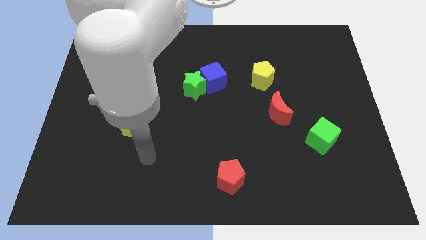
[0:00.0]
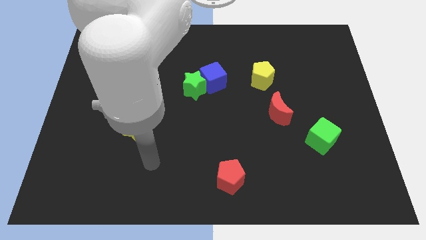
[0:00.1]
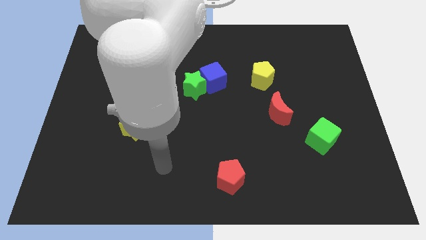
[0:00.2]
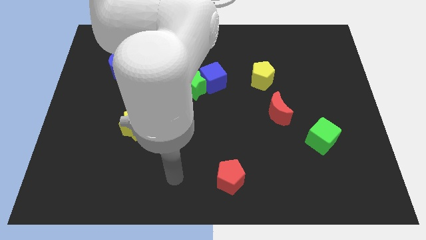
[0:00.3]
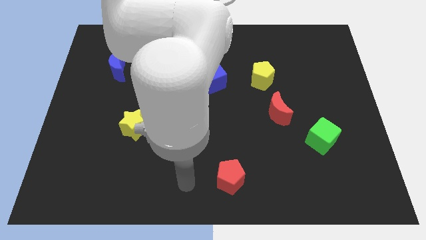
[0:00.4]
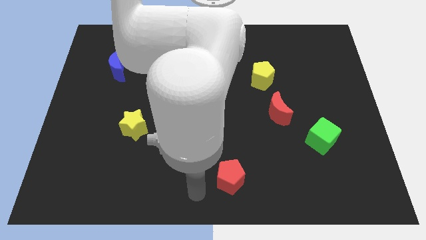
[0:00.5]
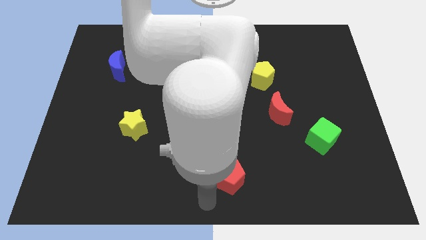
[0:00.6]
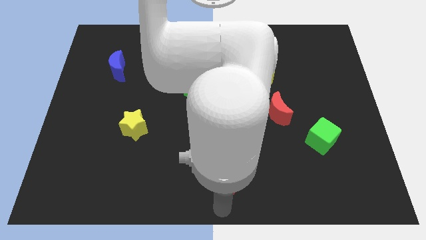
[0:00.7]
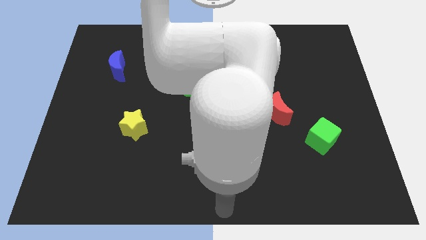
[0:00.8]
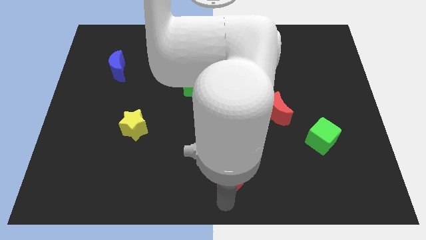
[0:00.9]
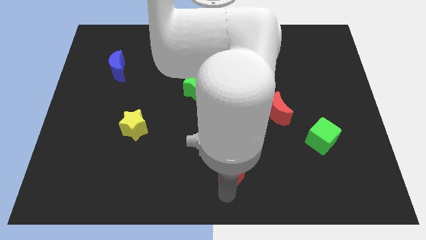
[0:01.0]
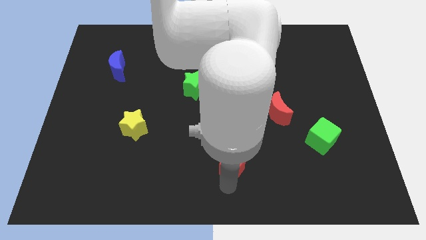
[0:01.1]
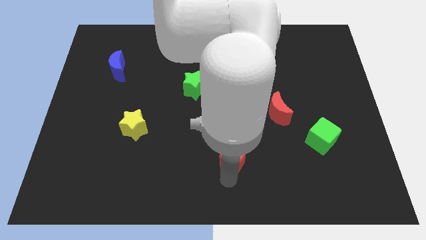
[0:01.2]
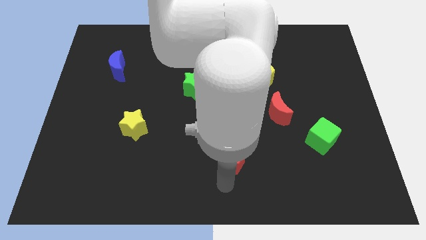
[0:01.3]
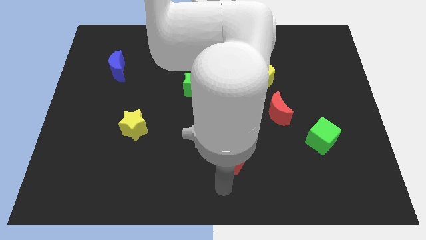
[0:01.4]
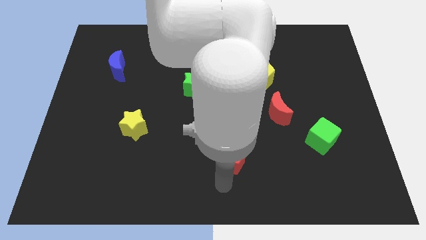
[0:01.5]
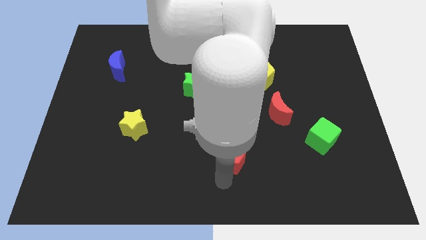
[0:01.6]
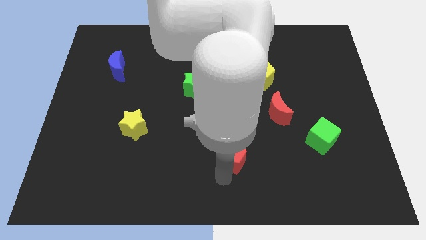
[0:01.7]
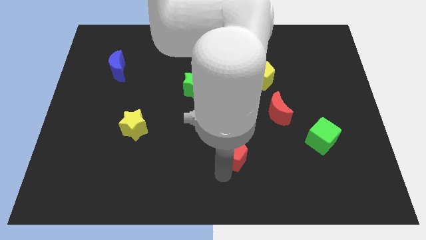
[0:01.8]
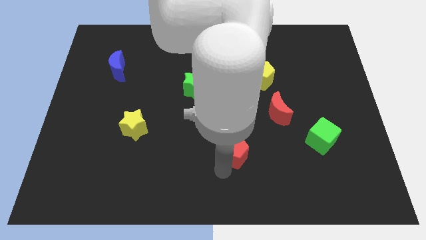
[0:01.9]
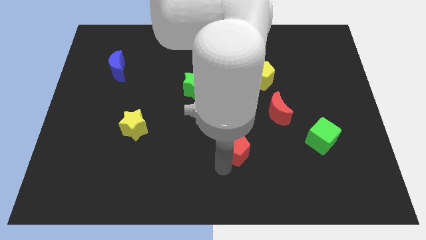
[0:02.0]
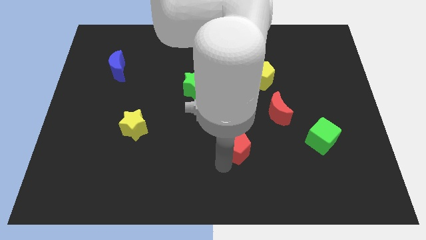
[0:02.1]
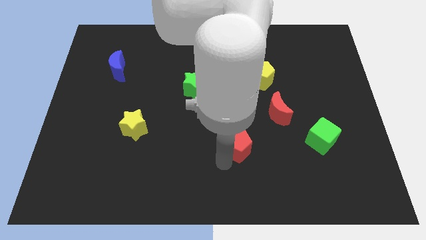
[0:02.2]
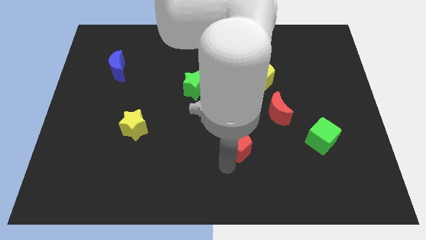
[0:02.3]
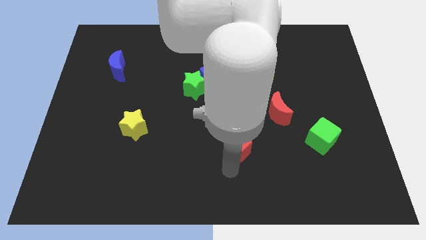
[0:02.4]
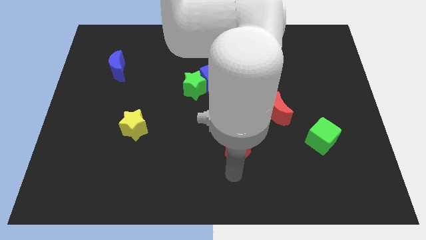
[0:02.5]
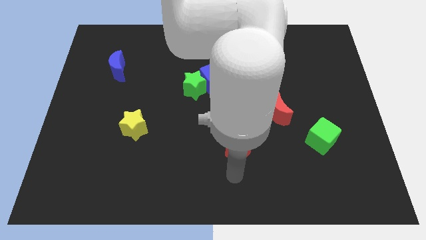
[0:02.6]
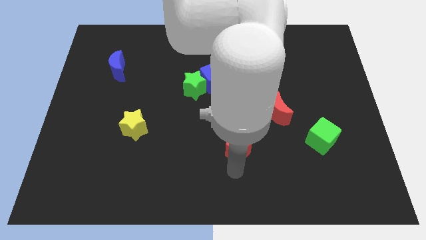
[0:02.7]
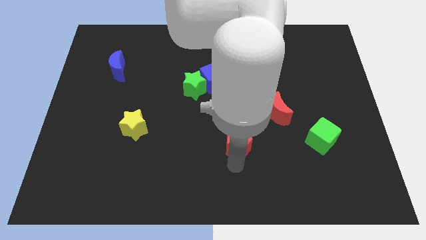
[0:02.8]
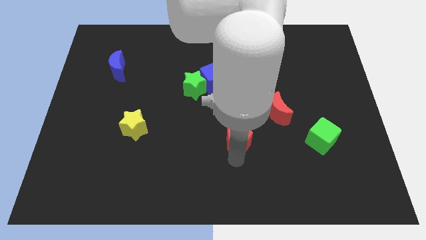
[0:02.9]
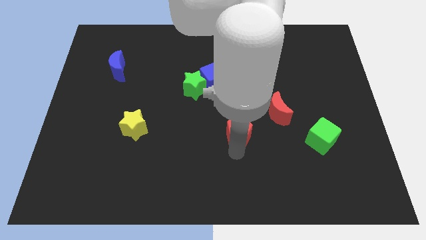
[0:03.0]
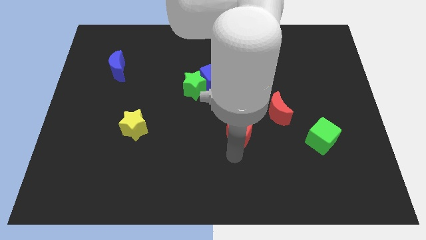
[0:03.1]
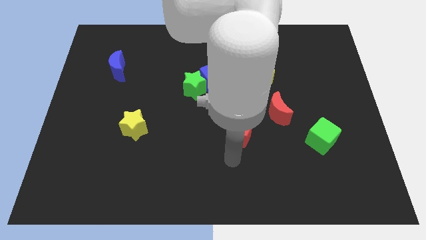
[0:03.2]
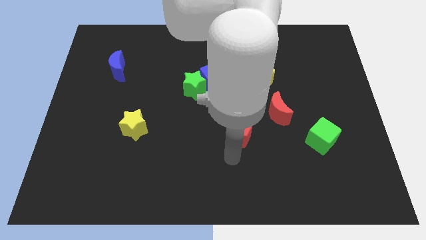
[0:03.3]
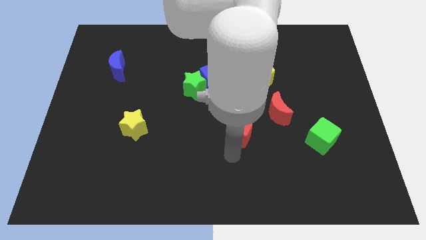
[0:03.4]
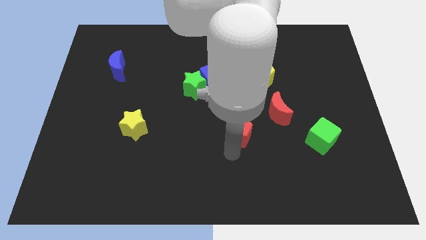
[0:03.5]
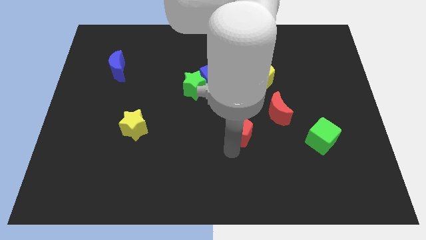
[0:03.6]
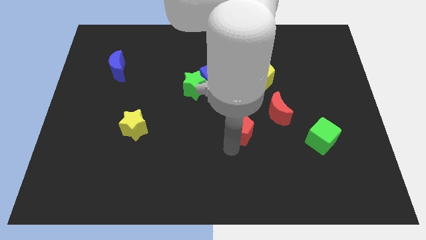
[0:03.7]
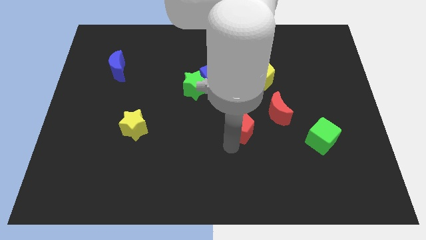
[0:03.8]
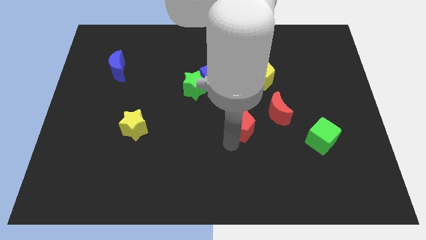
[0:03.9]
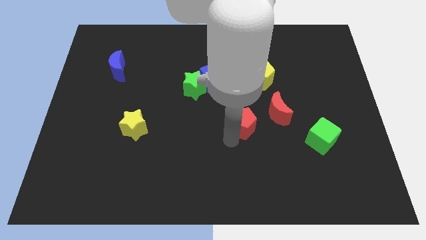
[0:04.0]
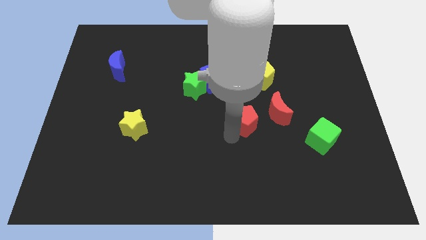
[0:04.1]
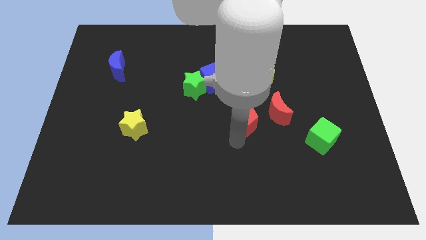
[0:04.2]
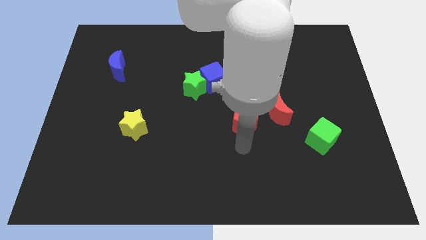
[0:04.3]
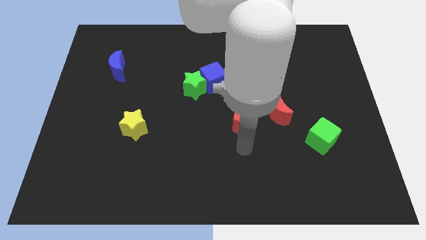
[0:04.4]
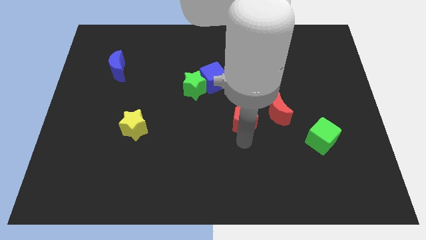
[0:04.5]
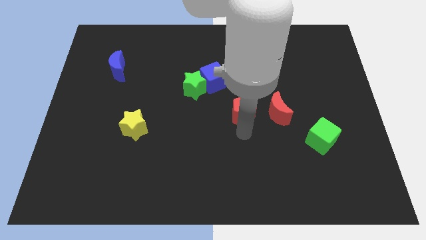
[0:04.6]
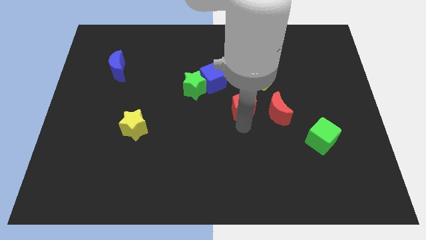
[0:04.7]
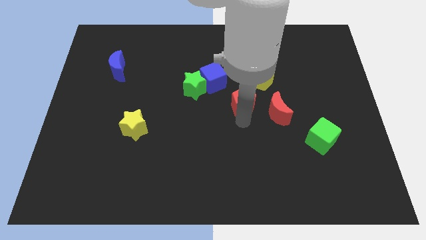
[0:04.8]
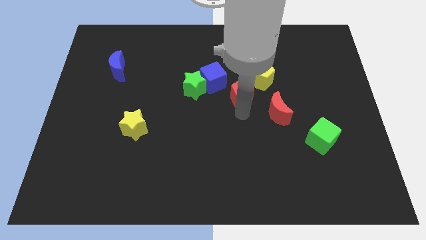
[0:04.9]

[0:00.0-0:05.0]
slide the red pentagon up

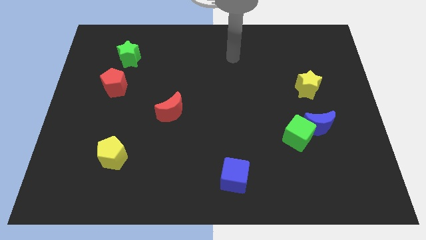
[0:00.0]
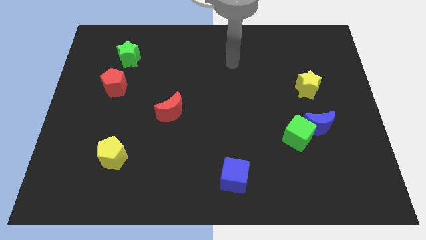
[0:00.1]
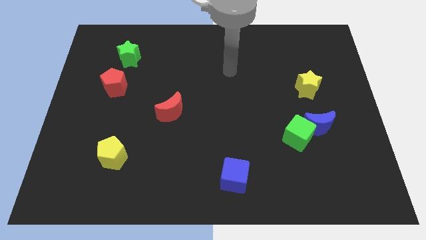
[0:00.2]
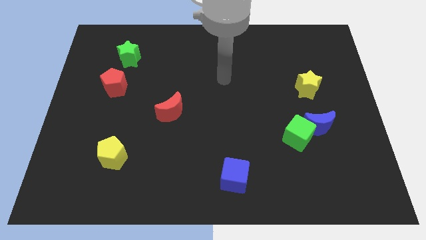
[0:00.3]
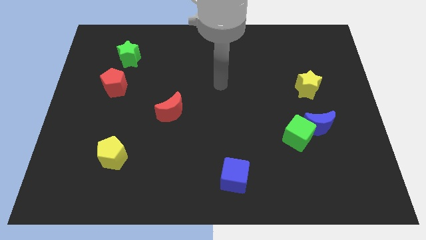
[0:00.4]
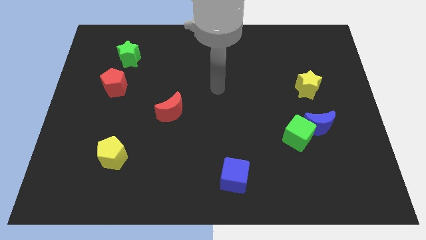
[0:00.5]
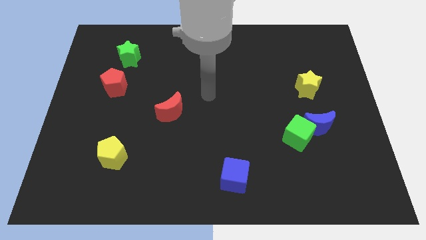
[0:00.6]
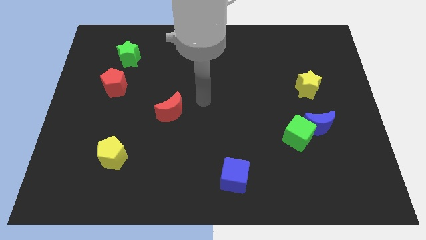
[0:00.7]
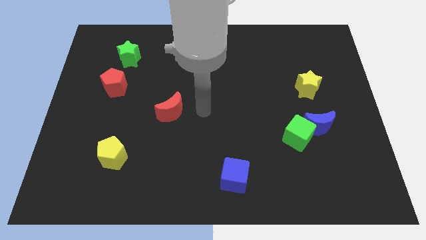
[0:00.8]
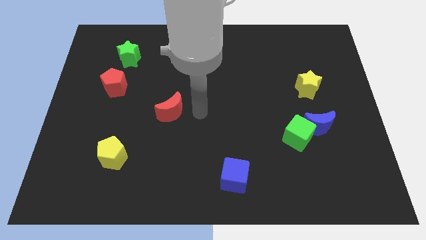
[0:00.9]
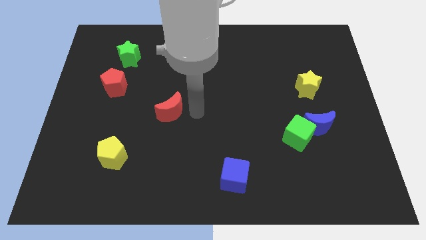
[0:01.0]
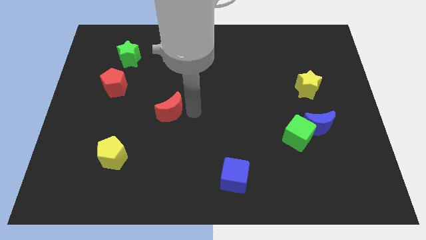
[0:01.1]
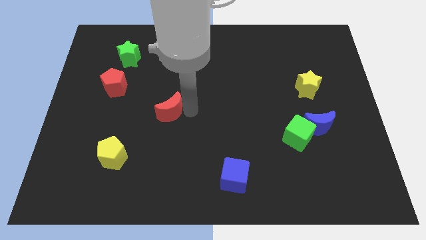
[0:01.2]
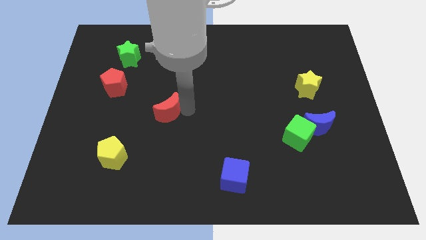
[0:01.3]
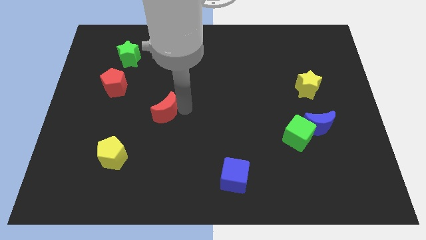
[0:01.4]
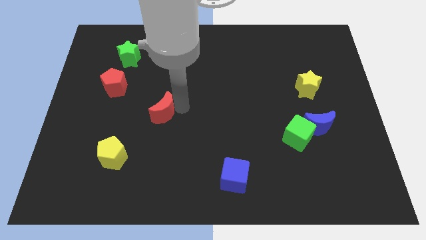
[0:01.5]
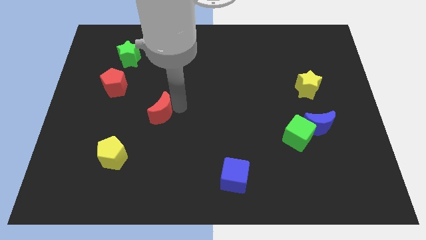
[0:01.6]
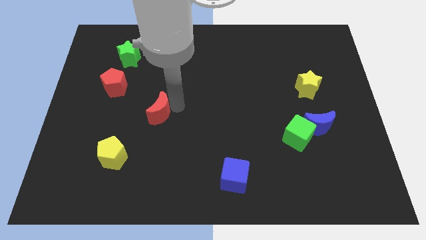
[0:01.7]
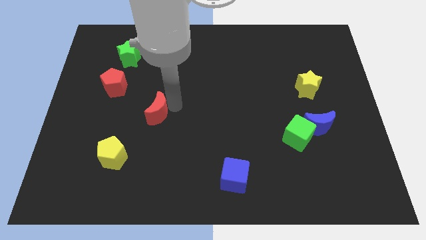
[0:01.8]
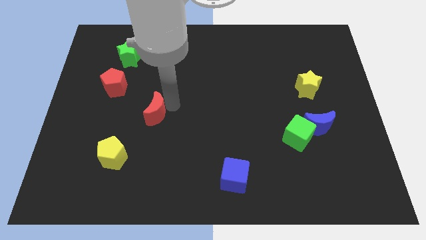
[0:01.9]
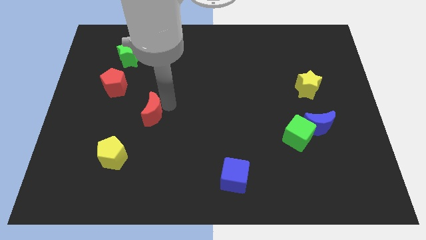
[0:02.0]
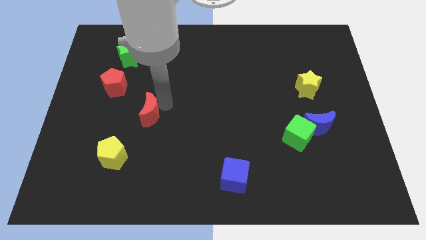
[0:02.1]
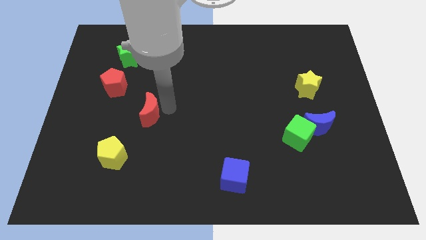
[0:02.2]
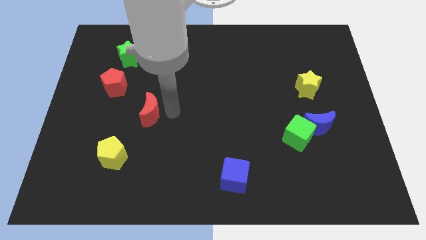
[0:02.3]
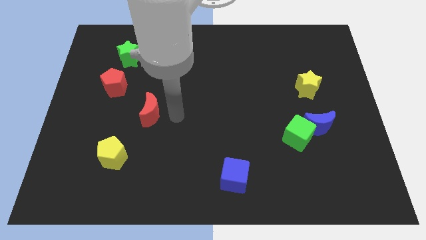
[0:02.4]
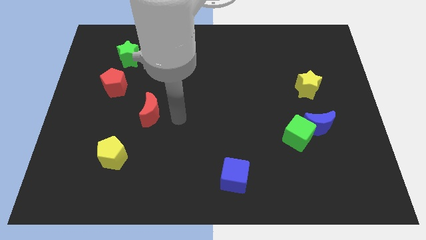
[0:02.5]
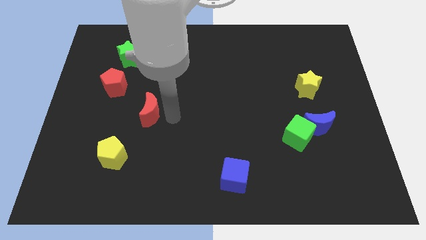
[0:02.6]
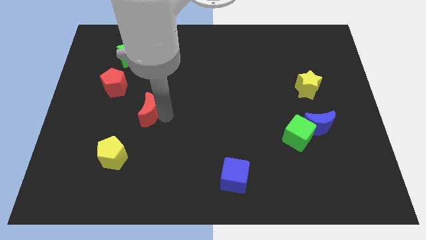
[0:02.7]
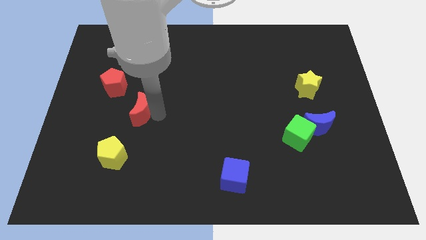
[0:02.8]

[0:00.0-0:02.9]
slide the red moon left slightly

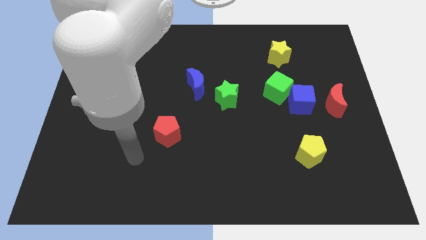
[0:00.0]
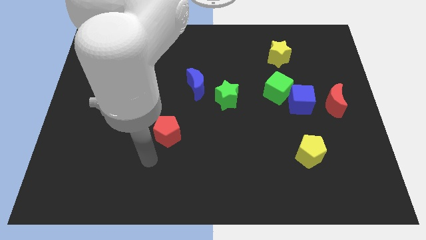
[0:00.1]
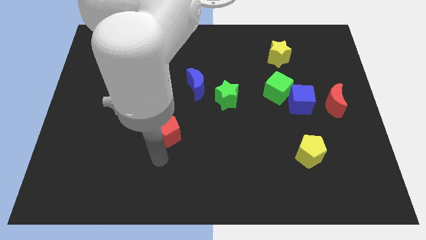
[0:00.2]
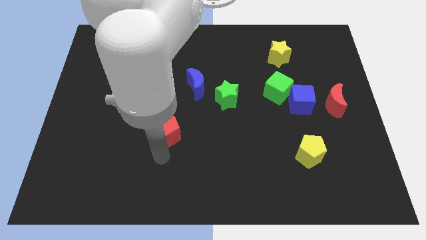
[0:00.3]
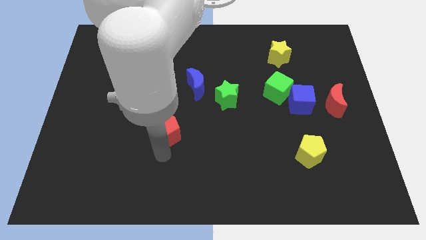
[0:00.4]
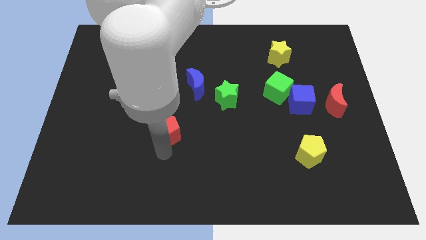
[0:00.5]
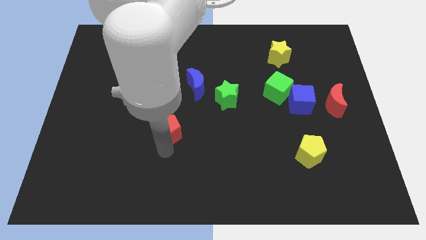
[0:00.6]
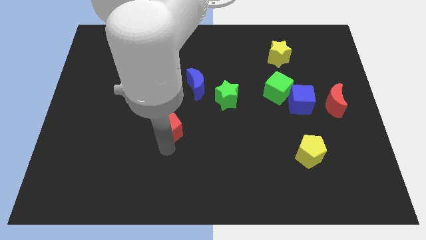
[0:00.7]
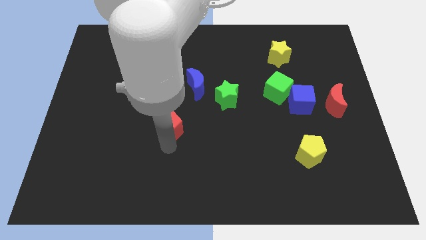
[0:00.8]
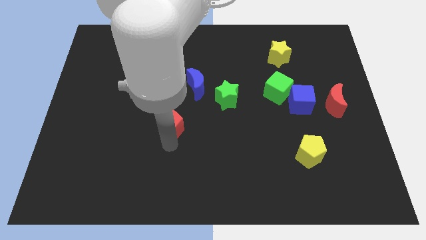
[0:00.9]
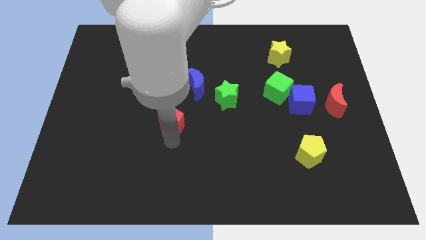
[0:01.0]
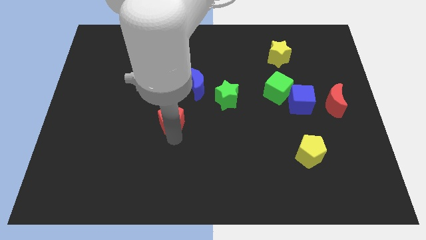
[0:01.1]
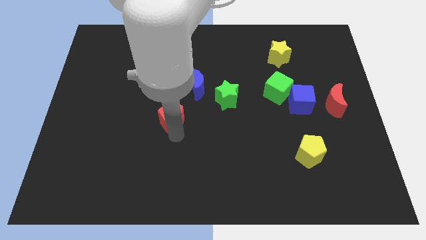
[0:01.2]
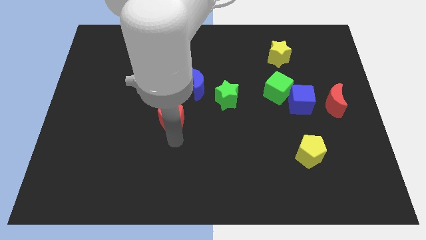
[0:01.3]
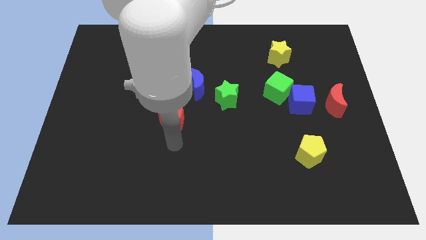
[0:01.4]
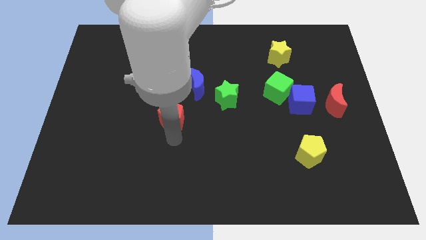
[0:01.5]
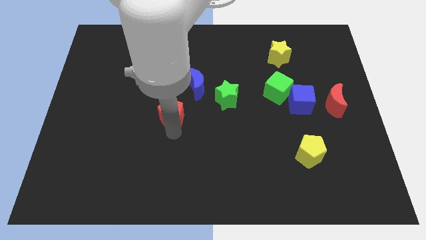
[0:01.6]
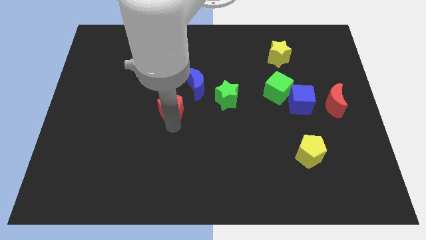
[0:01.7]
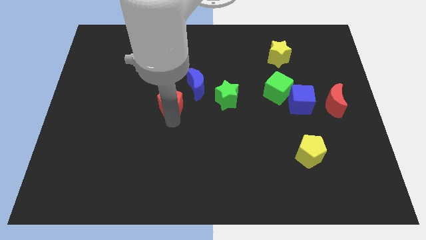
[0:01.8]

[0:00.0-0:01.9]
slightly move the red pentagon upwards
